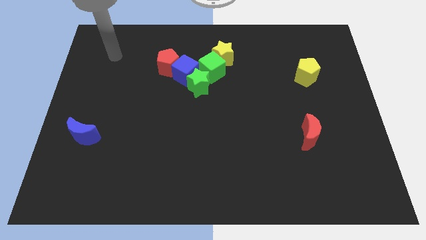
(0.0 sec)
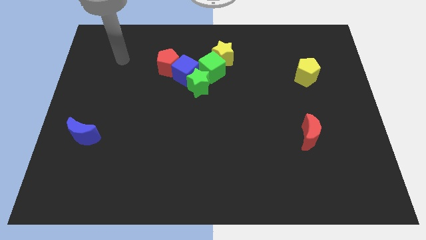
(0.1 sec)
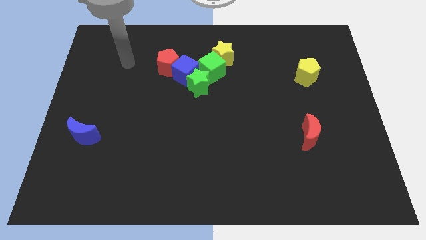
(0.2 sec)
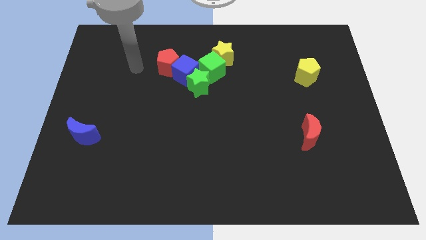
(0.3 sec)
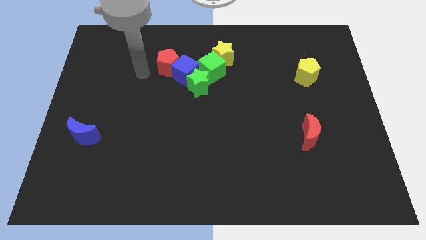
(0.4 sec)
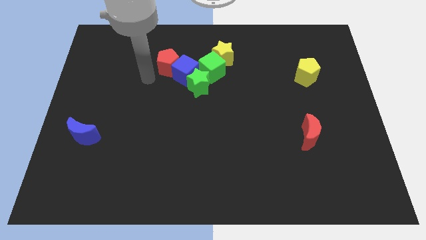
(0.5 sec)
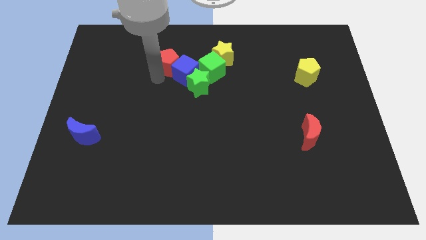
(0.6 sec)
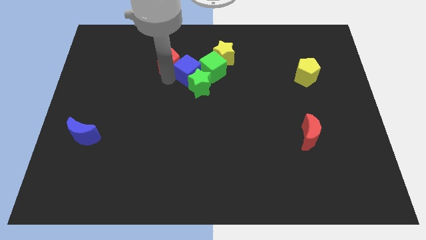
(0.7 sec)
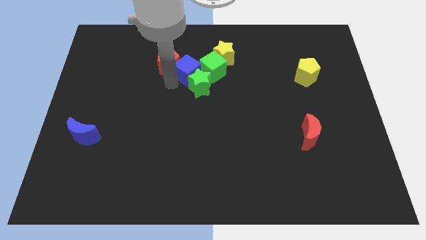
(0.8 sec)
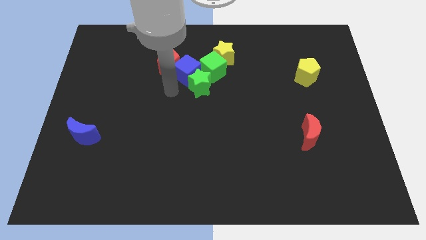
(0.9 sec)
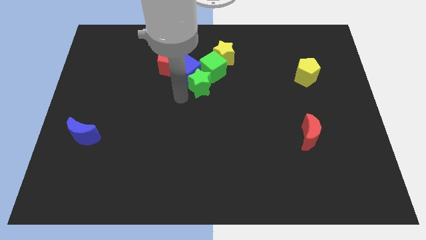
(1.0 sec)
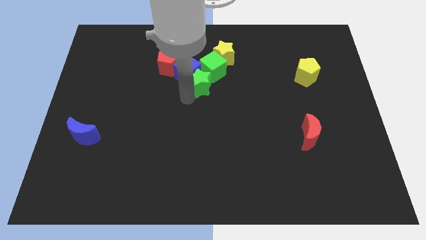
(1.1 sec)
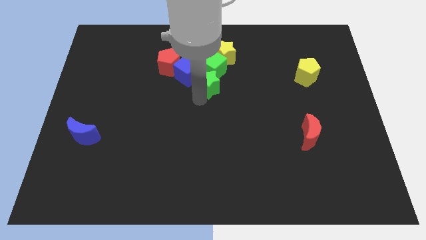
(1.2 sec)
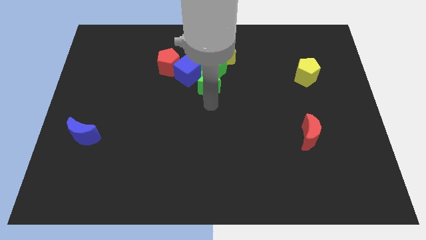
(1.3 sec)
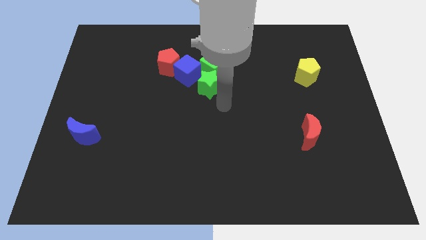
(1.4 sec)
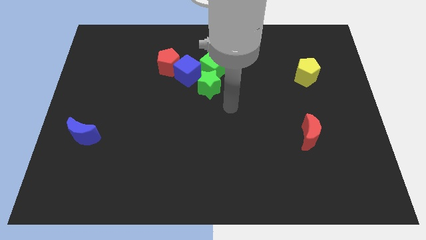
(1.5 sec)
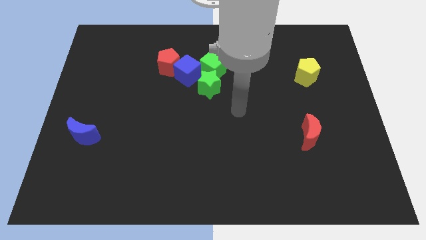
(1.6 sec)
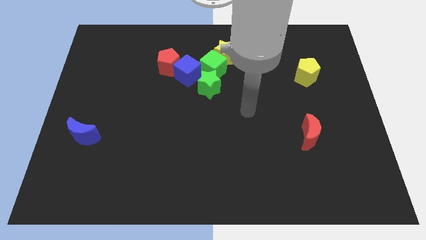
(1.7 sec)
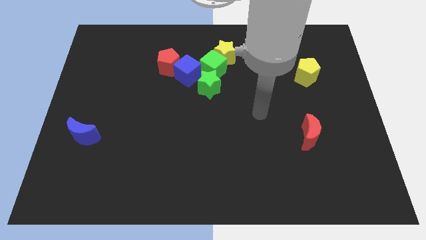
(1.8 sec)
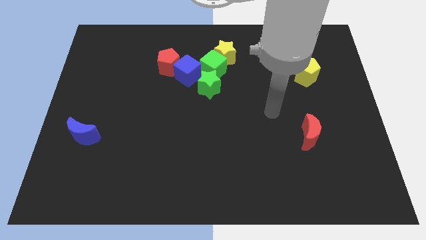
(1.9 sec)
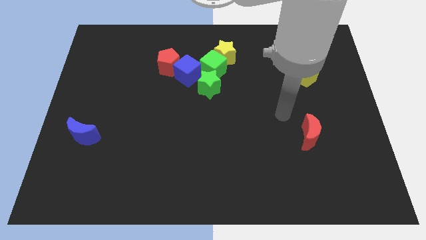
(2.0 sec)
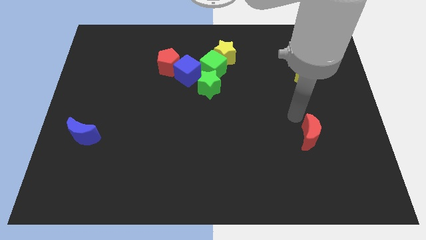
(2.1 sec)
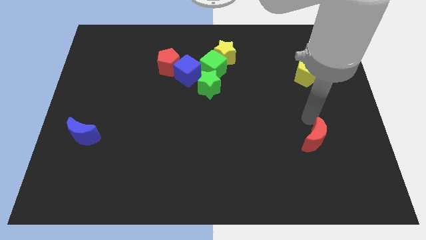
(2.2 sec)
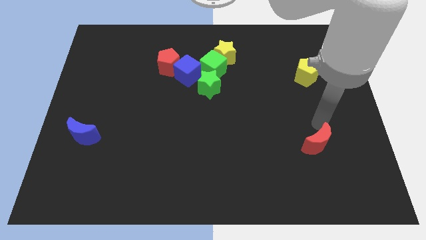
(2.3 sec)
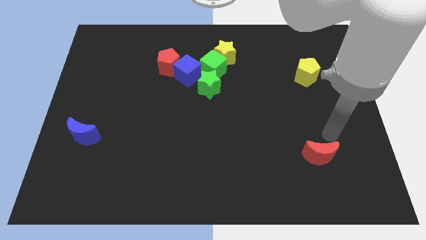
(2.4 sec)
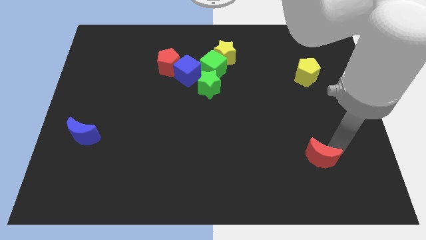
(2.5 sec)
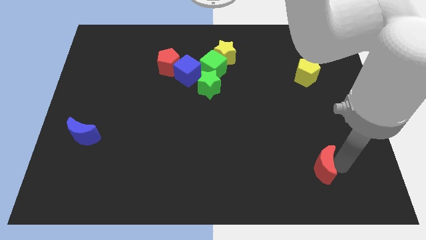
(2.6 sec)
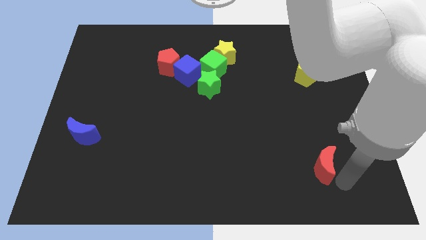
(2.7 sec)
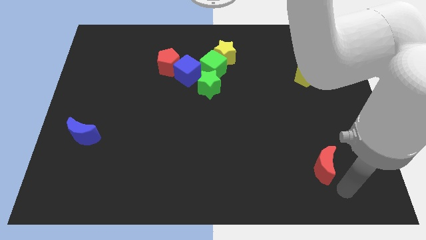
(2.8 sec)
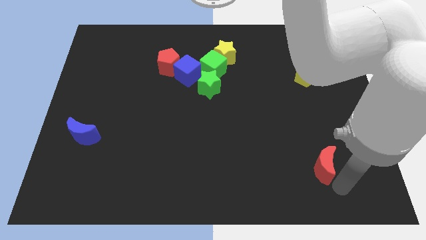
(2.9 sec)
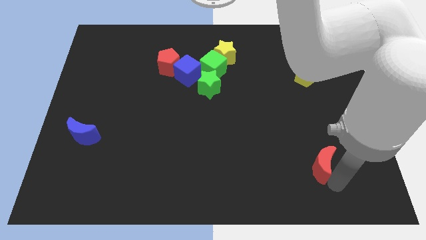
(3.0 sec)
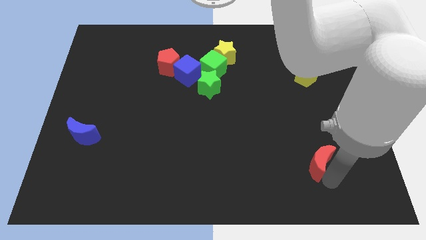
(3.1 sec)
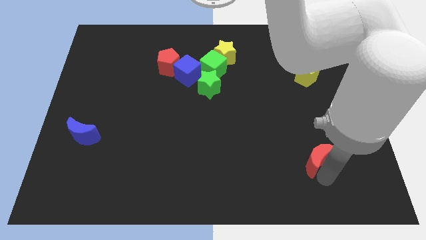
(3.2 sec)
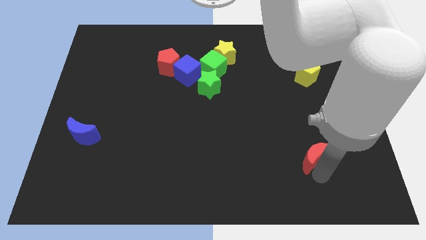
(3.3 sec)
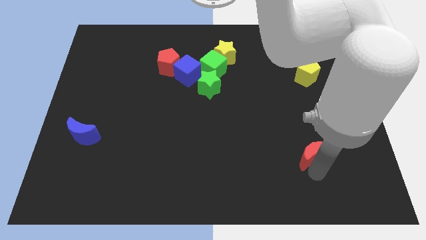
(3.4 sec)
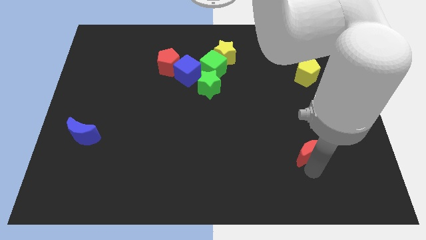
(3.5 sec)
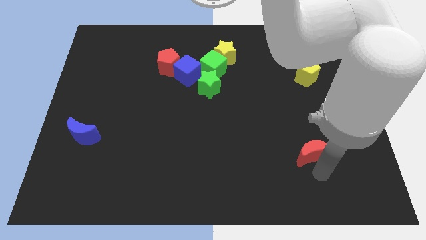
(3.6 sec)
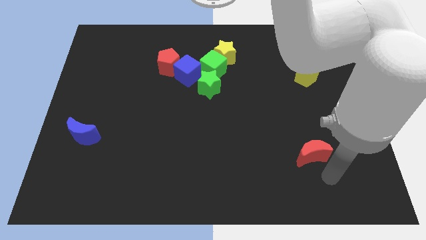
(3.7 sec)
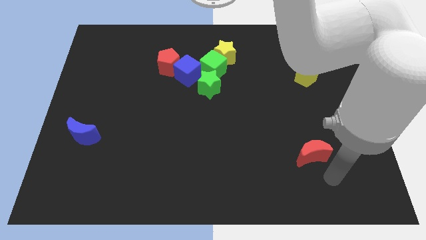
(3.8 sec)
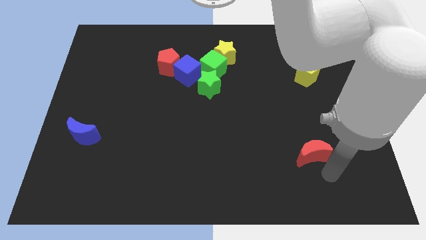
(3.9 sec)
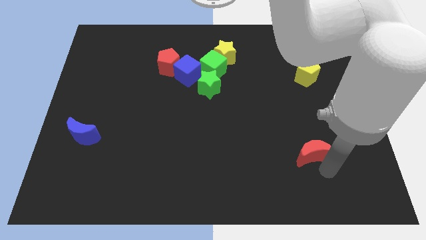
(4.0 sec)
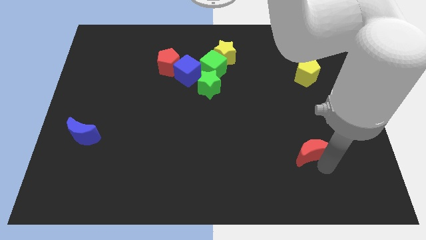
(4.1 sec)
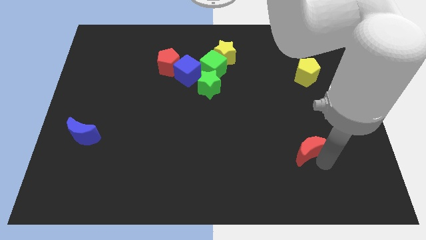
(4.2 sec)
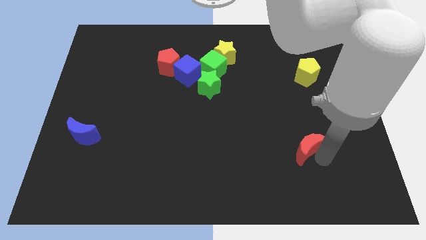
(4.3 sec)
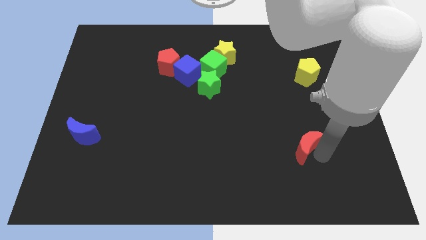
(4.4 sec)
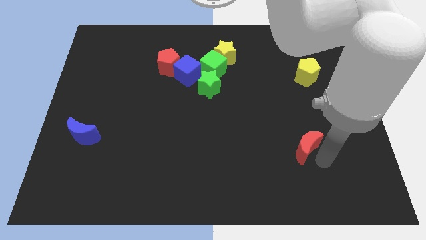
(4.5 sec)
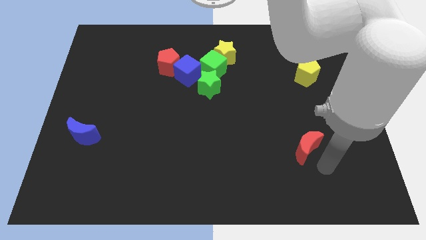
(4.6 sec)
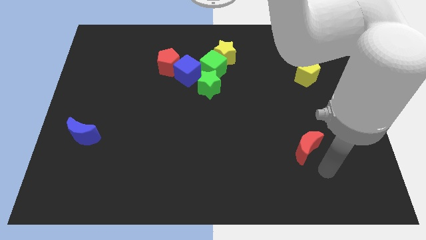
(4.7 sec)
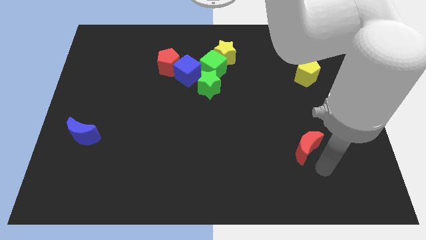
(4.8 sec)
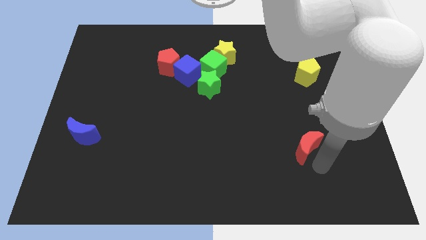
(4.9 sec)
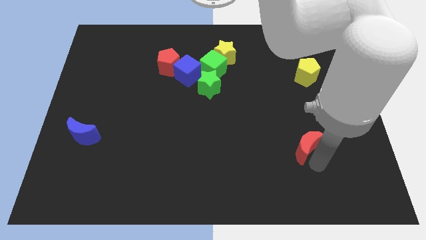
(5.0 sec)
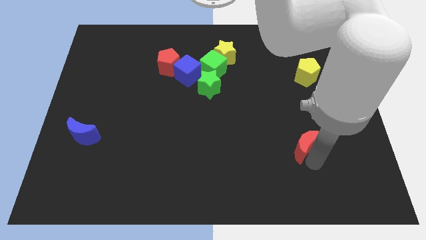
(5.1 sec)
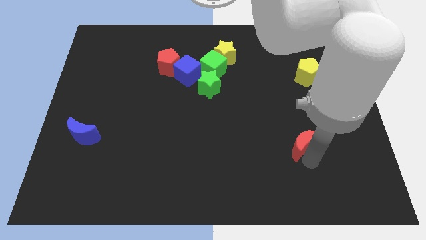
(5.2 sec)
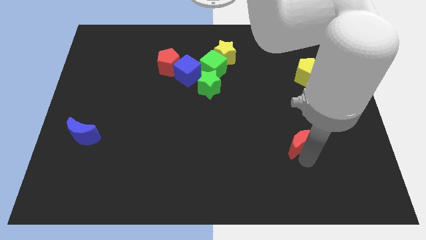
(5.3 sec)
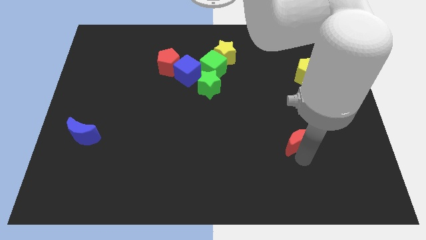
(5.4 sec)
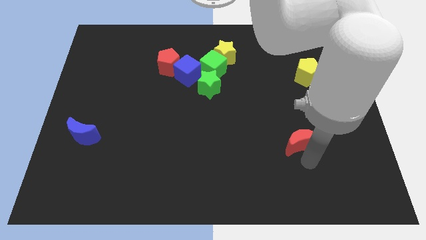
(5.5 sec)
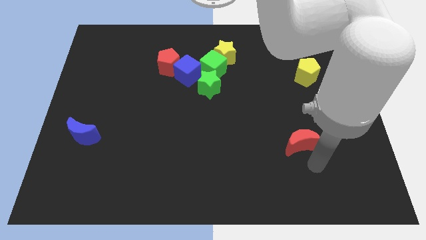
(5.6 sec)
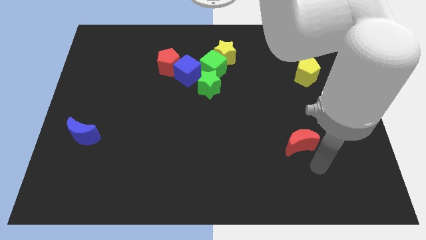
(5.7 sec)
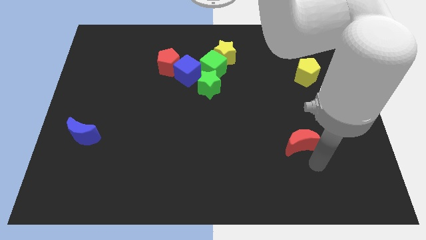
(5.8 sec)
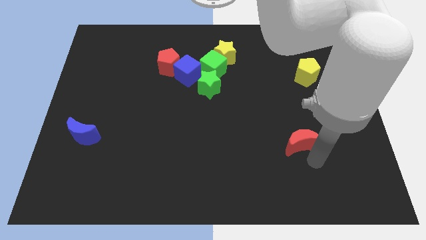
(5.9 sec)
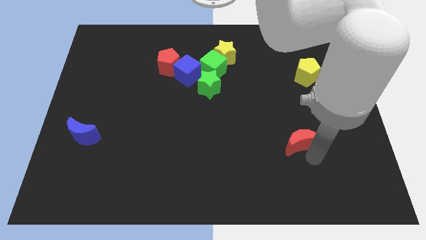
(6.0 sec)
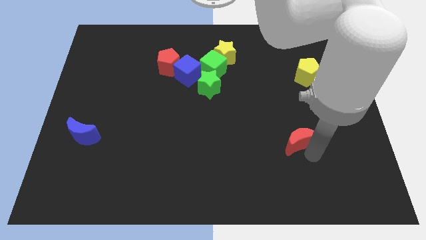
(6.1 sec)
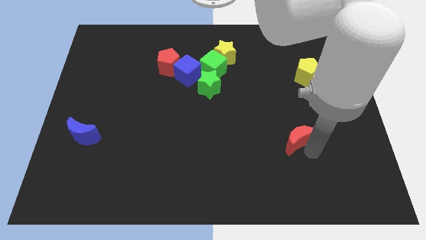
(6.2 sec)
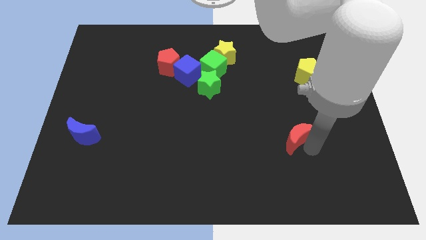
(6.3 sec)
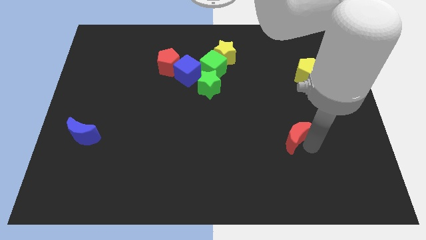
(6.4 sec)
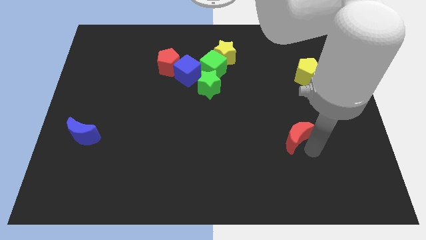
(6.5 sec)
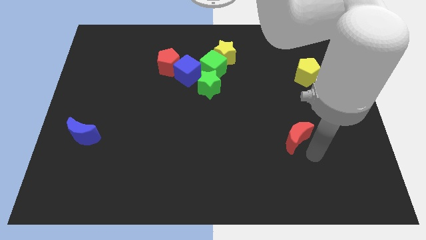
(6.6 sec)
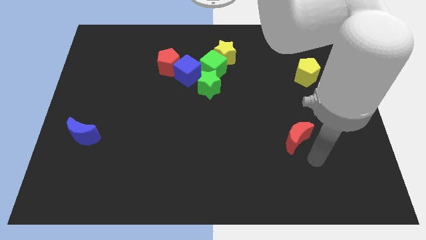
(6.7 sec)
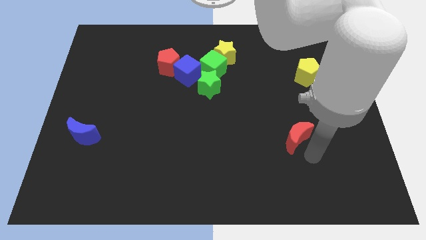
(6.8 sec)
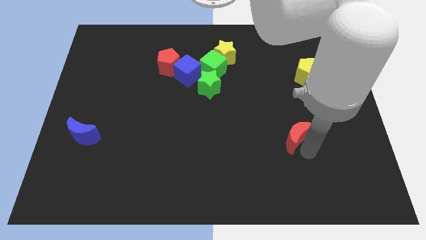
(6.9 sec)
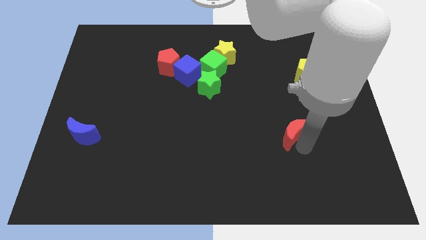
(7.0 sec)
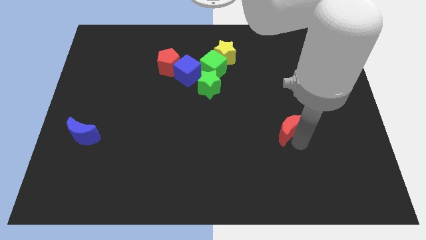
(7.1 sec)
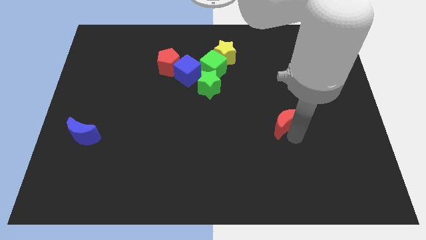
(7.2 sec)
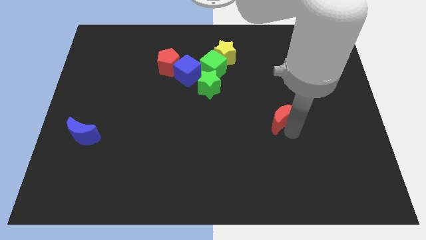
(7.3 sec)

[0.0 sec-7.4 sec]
slightly slide the red moon upwards and to the left diagonally

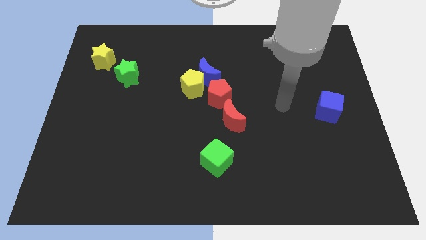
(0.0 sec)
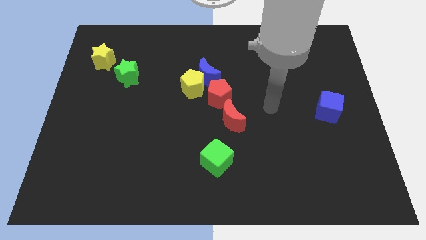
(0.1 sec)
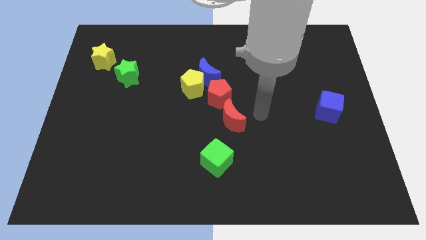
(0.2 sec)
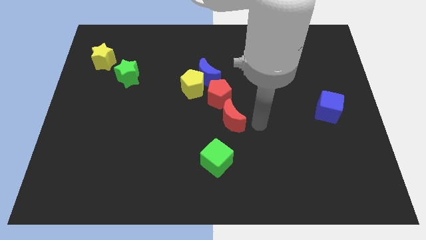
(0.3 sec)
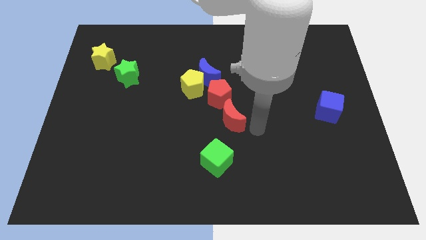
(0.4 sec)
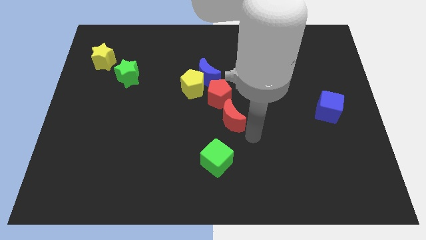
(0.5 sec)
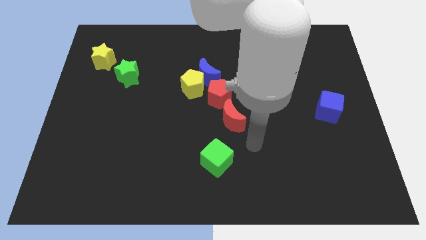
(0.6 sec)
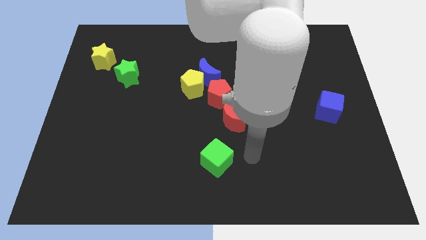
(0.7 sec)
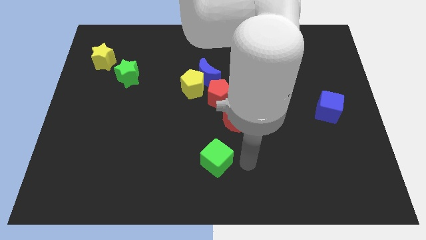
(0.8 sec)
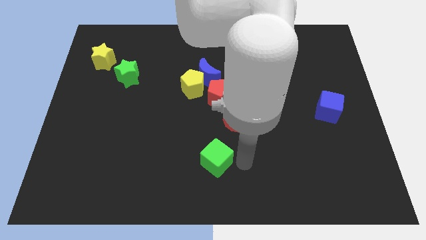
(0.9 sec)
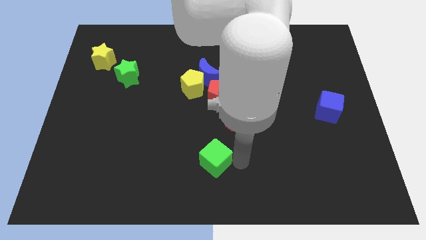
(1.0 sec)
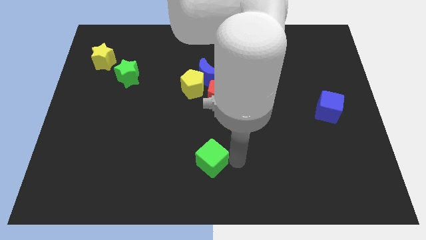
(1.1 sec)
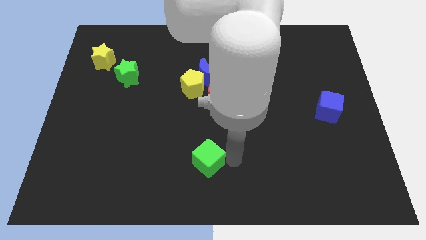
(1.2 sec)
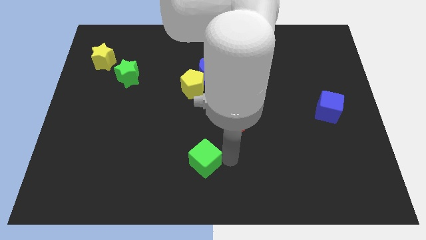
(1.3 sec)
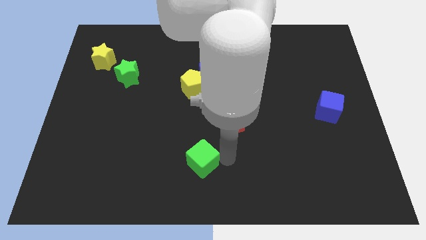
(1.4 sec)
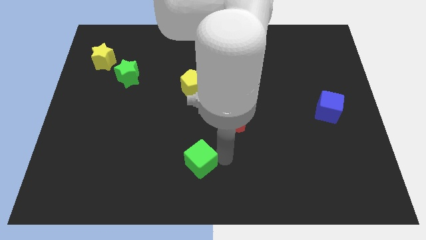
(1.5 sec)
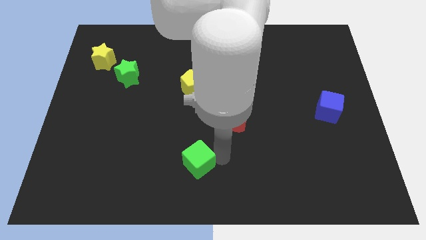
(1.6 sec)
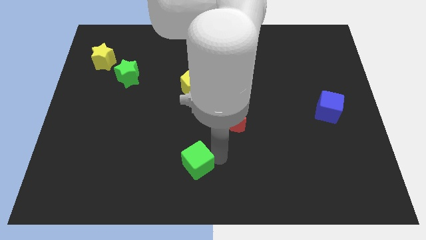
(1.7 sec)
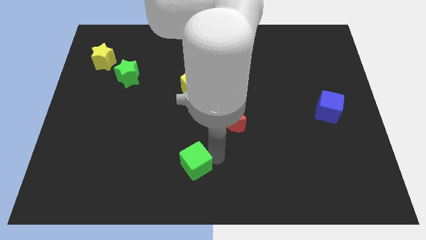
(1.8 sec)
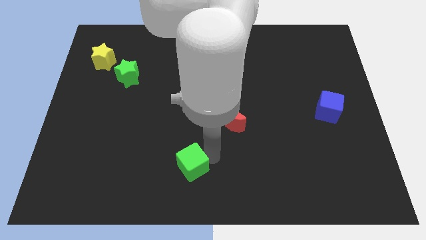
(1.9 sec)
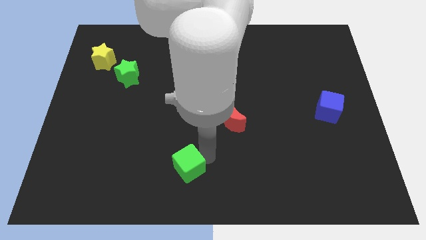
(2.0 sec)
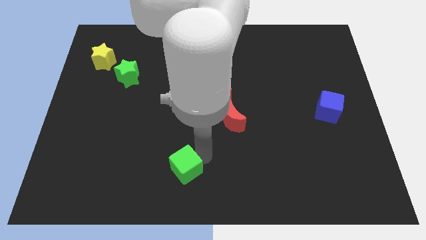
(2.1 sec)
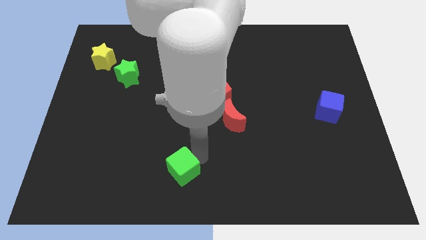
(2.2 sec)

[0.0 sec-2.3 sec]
slightly slide the green cube left
